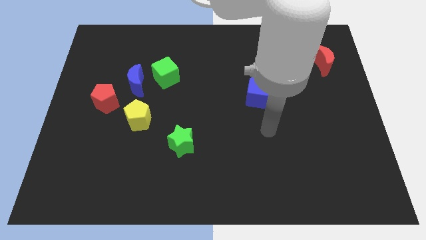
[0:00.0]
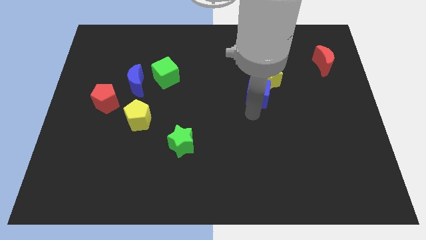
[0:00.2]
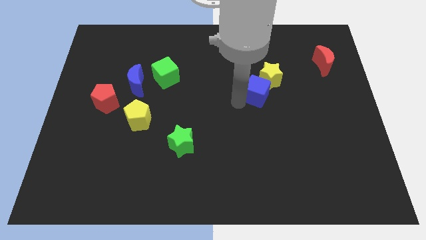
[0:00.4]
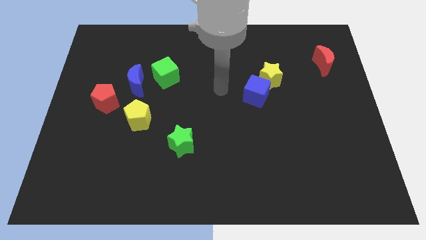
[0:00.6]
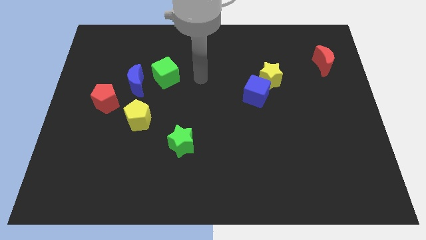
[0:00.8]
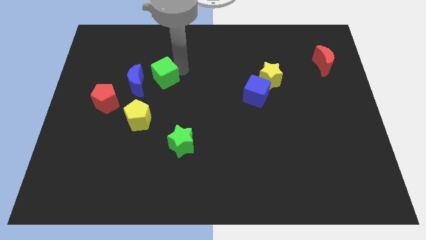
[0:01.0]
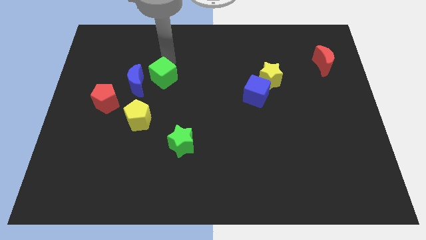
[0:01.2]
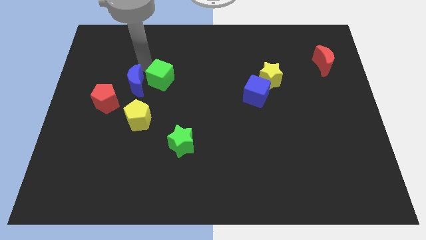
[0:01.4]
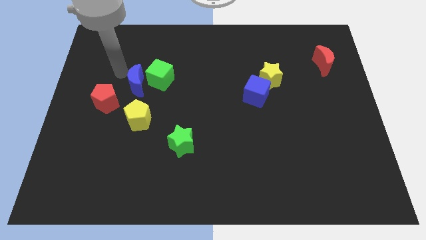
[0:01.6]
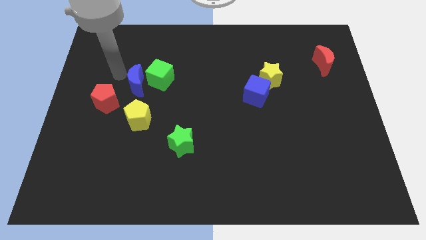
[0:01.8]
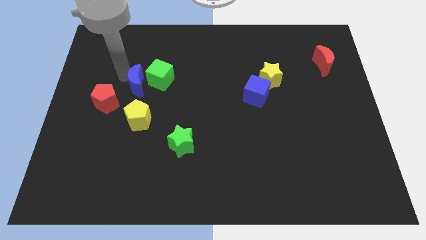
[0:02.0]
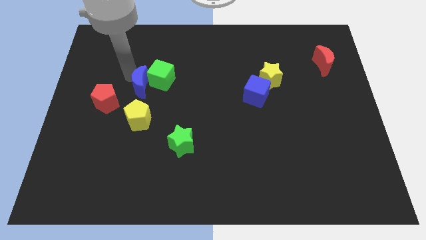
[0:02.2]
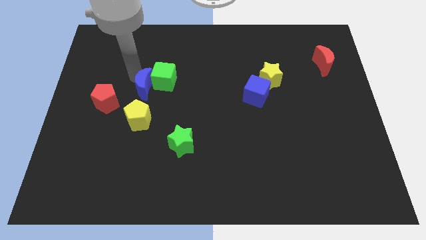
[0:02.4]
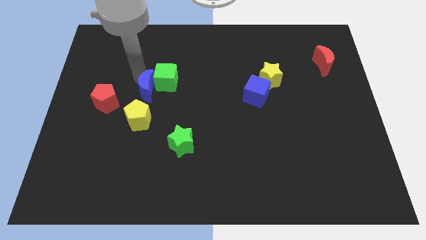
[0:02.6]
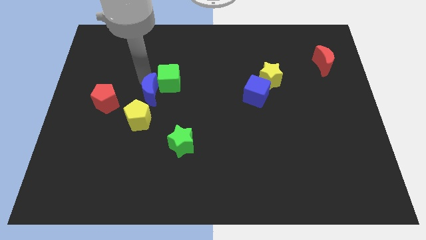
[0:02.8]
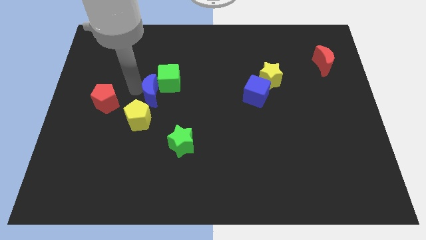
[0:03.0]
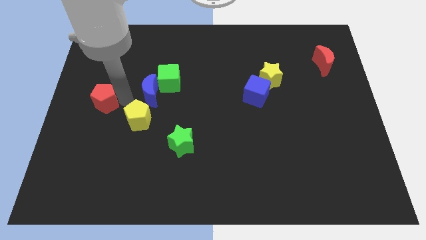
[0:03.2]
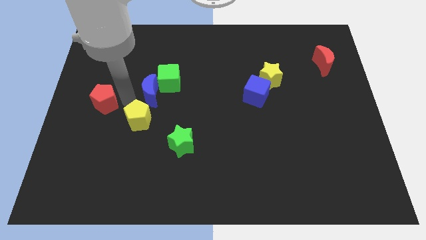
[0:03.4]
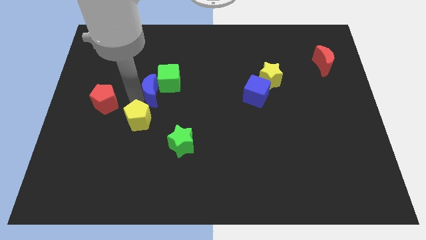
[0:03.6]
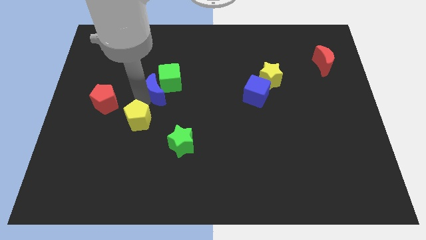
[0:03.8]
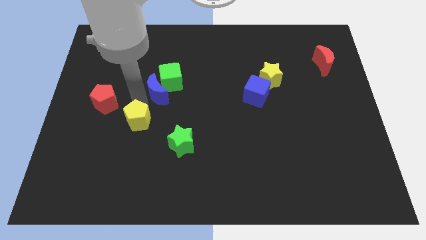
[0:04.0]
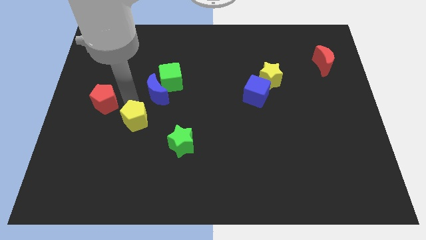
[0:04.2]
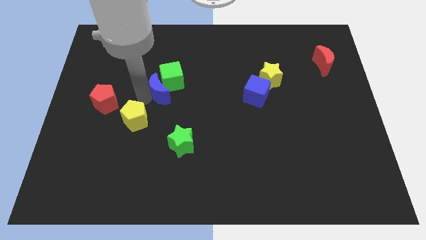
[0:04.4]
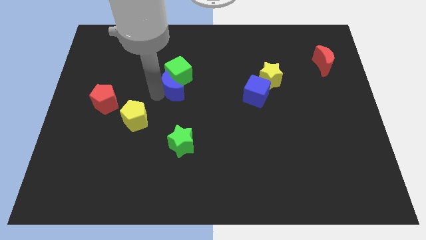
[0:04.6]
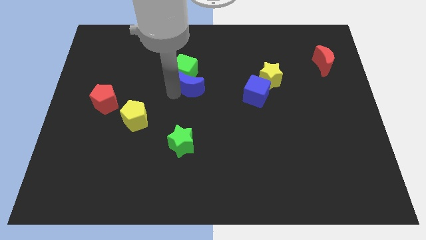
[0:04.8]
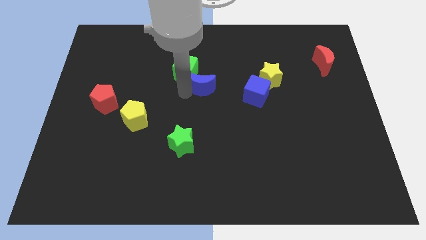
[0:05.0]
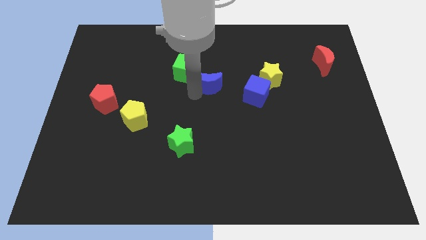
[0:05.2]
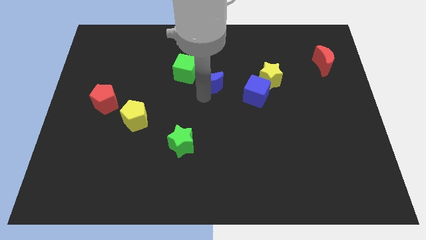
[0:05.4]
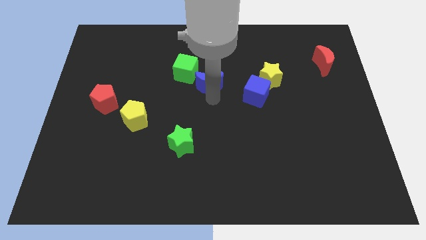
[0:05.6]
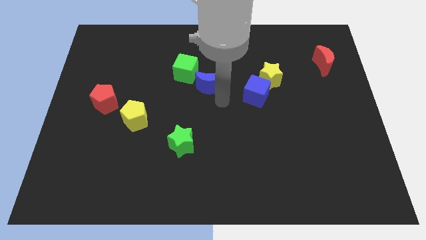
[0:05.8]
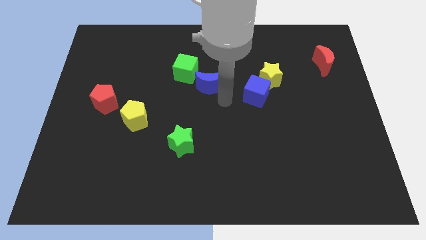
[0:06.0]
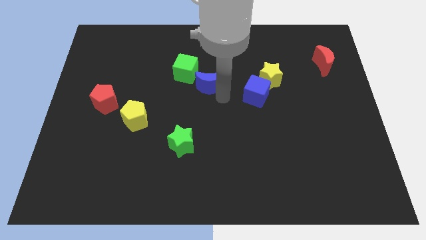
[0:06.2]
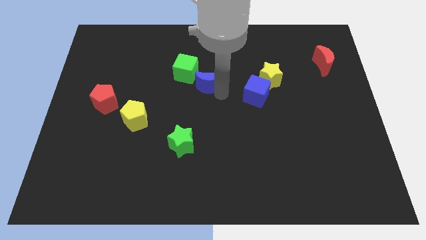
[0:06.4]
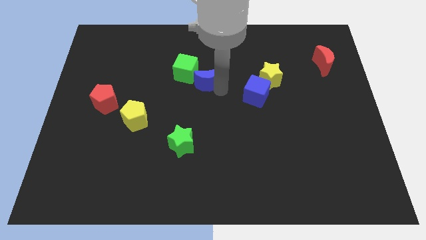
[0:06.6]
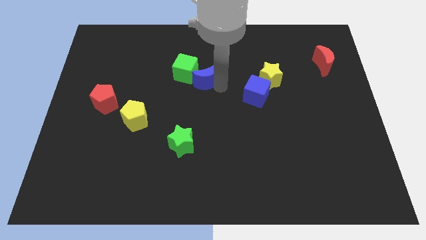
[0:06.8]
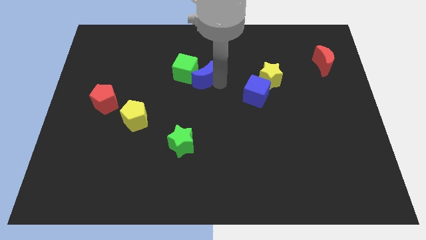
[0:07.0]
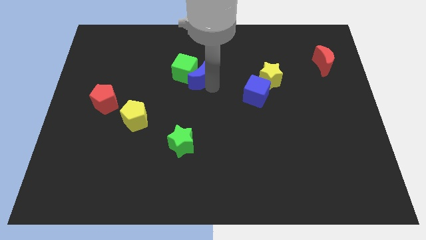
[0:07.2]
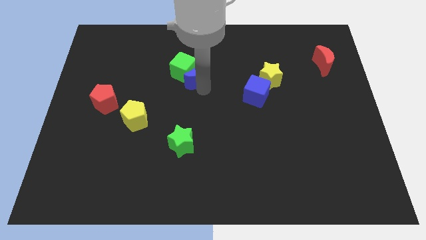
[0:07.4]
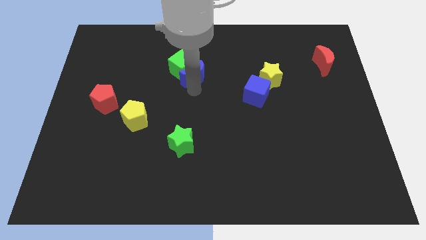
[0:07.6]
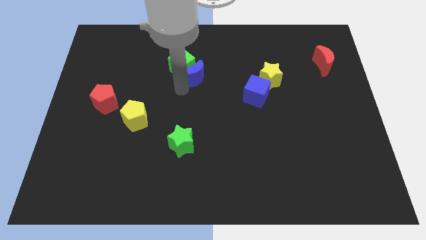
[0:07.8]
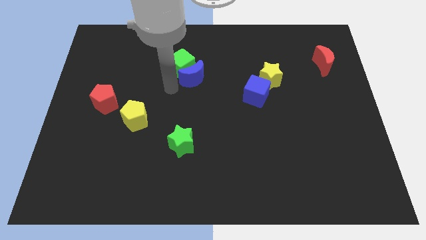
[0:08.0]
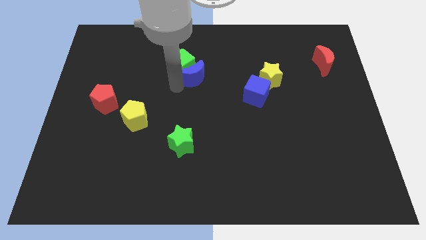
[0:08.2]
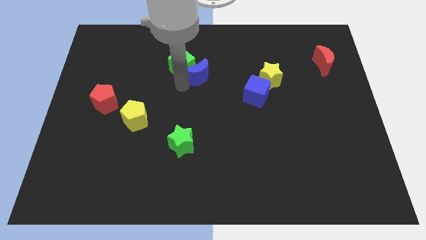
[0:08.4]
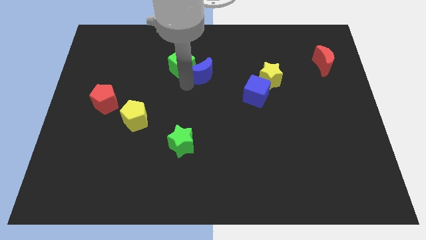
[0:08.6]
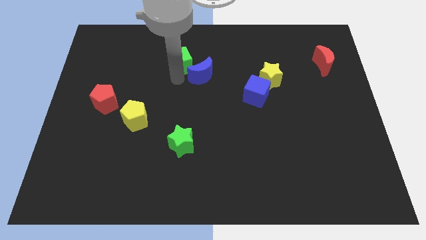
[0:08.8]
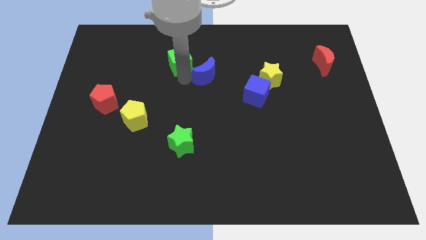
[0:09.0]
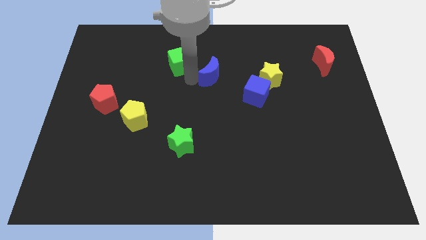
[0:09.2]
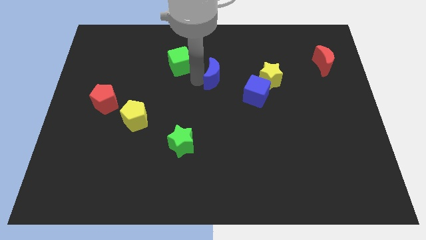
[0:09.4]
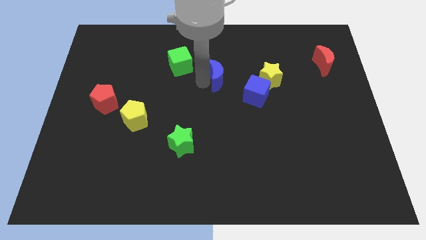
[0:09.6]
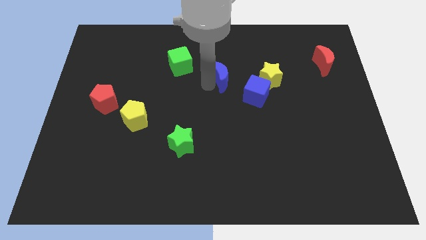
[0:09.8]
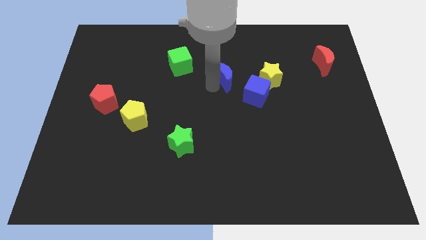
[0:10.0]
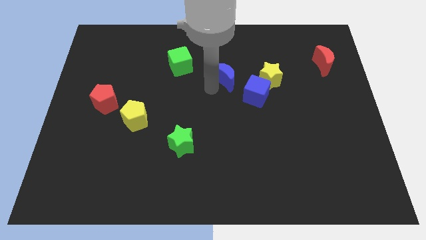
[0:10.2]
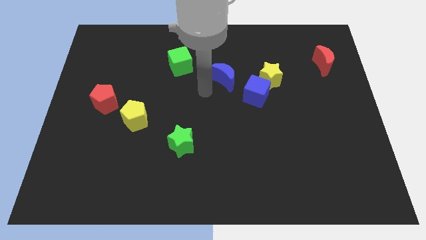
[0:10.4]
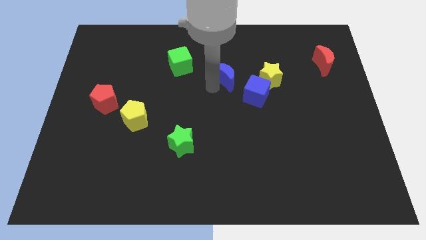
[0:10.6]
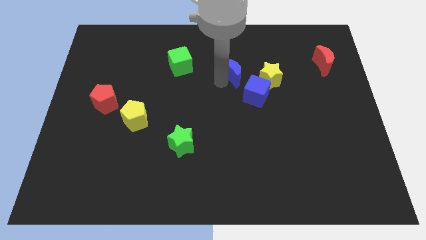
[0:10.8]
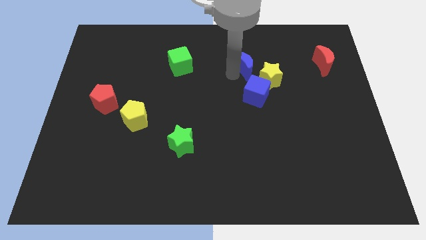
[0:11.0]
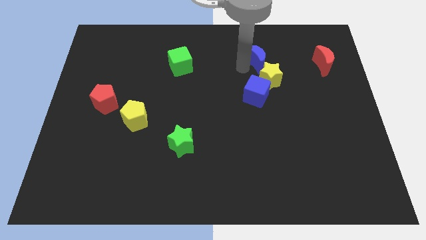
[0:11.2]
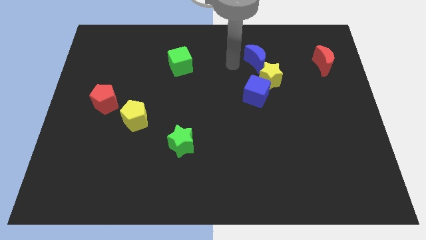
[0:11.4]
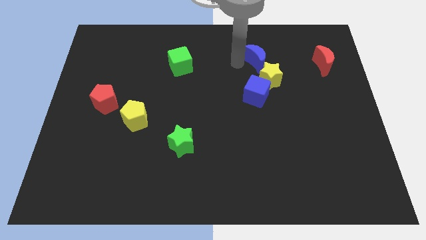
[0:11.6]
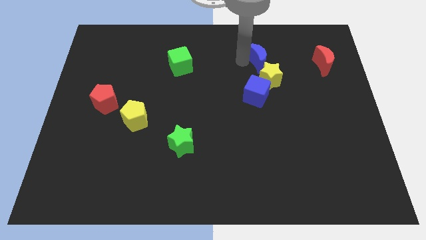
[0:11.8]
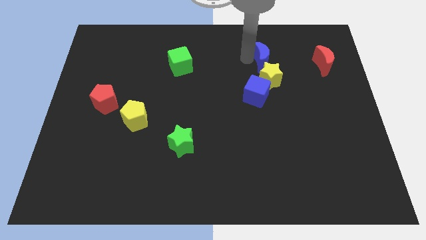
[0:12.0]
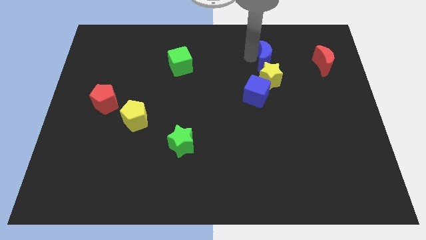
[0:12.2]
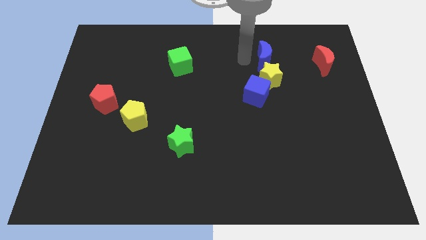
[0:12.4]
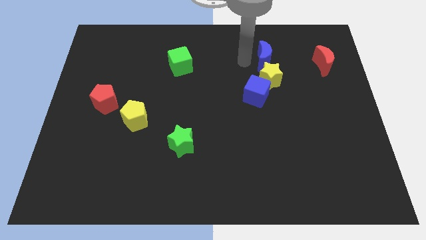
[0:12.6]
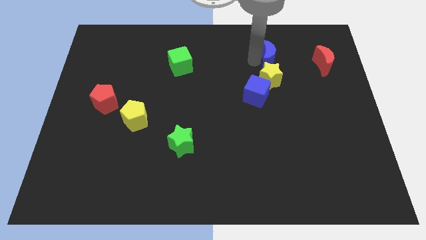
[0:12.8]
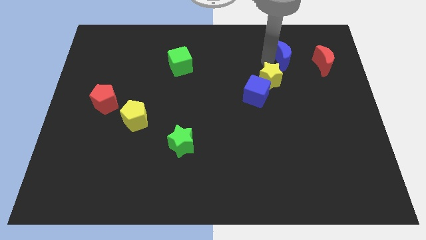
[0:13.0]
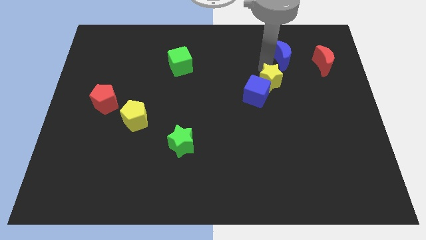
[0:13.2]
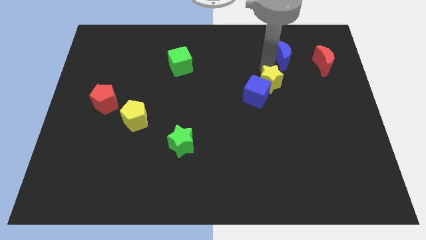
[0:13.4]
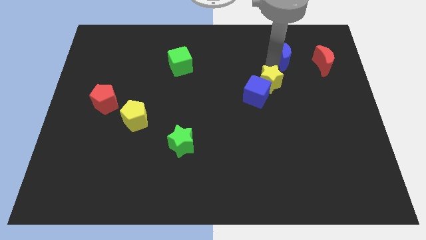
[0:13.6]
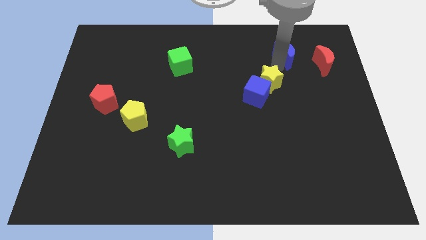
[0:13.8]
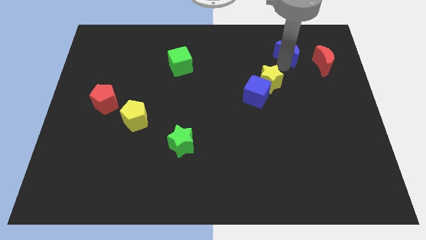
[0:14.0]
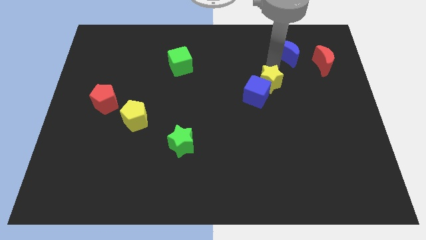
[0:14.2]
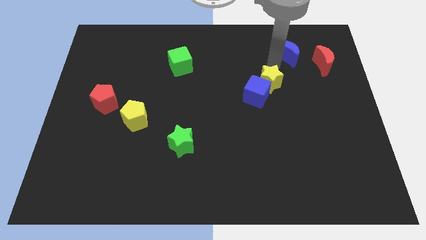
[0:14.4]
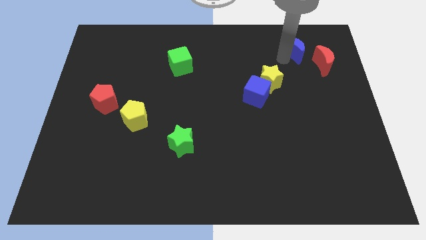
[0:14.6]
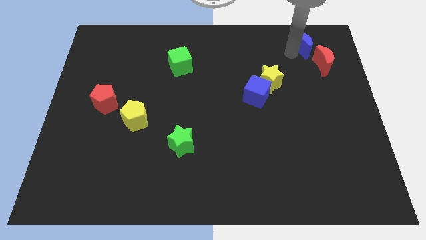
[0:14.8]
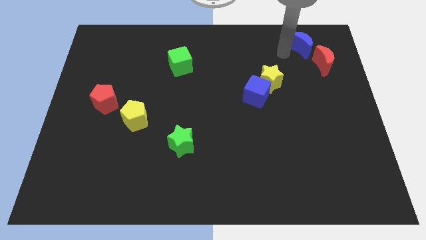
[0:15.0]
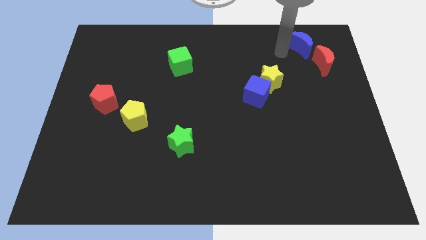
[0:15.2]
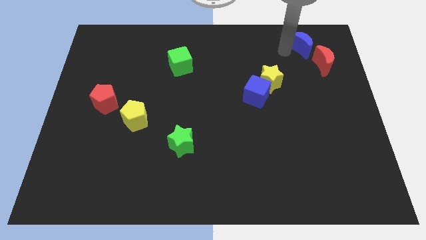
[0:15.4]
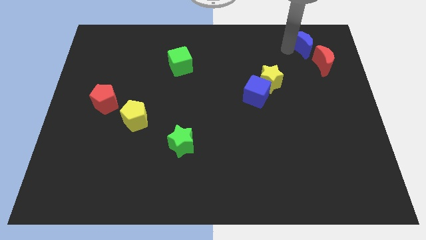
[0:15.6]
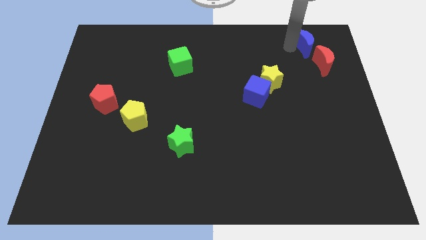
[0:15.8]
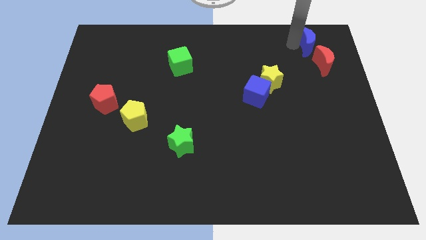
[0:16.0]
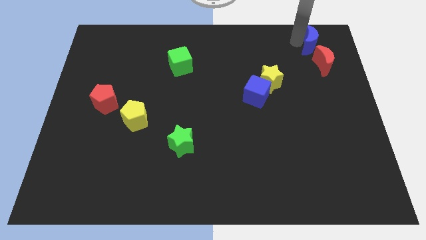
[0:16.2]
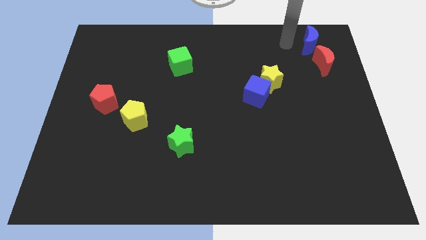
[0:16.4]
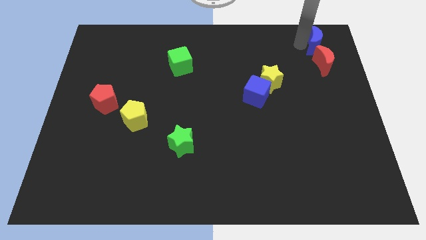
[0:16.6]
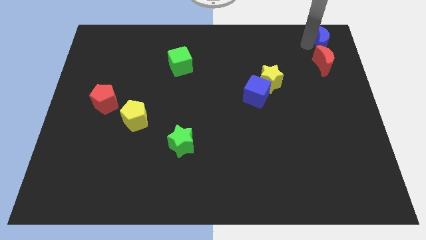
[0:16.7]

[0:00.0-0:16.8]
push the blue moon to the top right
